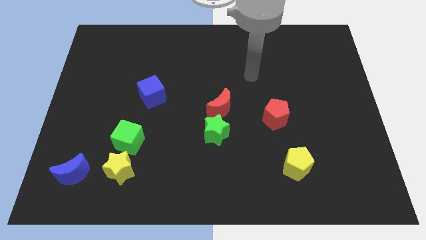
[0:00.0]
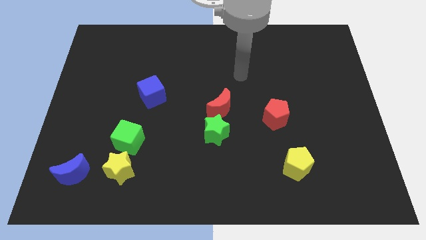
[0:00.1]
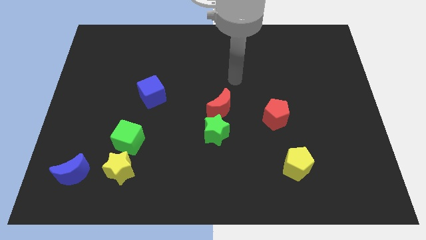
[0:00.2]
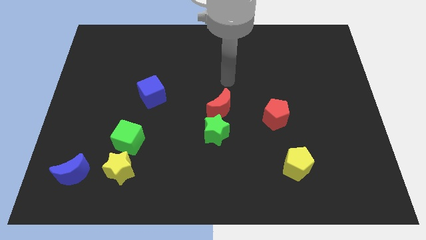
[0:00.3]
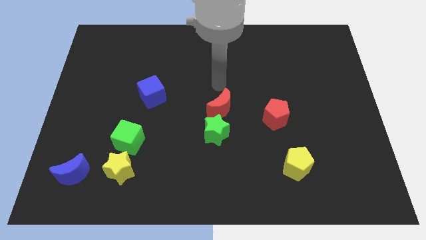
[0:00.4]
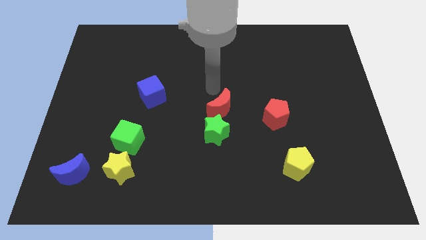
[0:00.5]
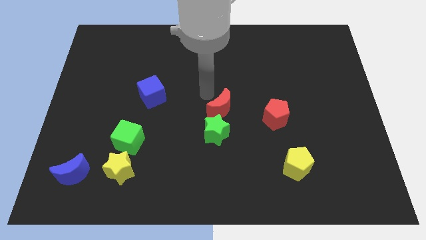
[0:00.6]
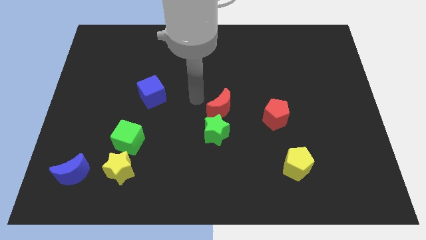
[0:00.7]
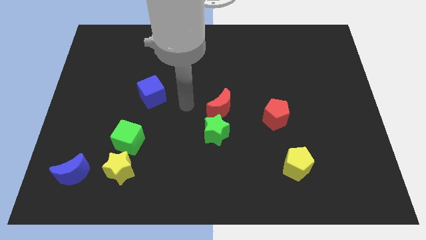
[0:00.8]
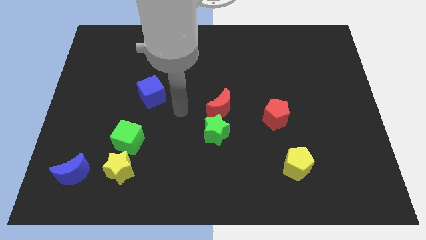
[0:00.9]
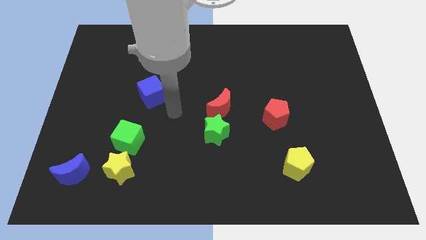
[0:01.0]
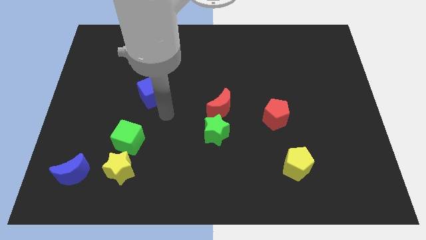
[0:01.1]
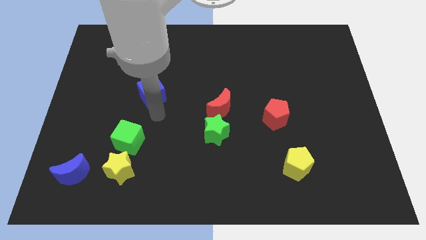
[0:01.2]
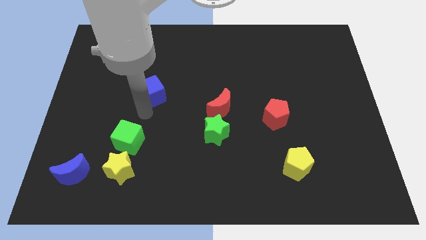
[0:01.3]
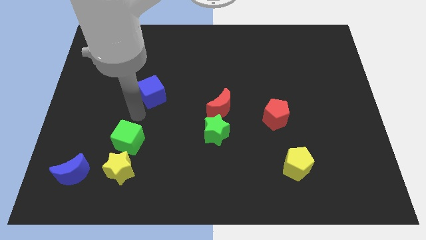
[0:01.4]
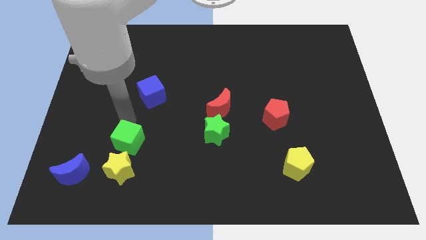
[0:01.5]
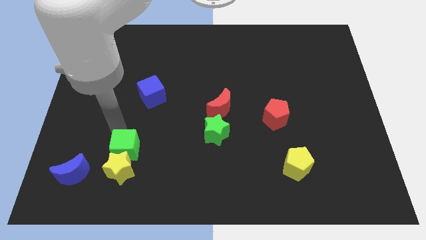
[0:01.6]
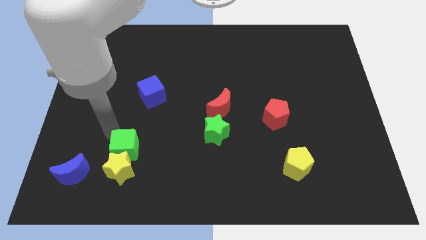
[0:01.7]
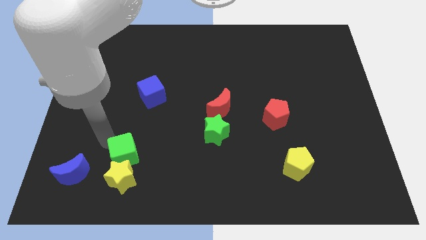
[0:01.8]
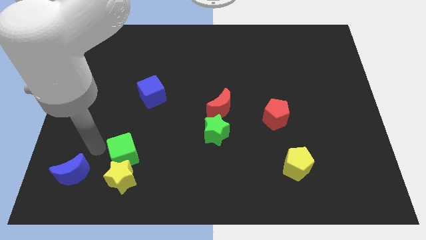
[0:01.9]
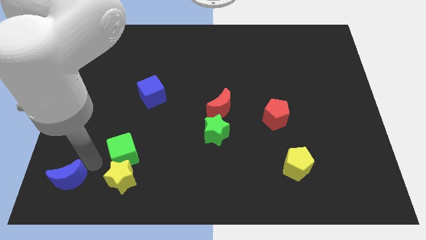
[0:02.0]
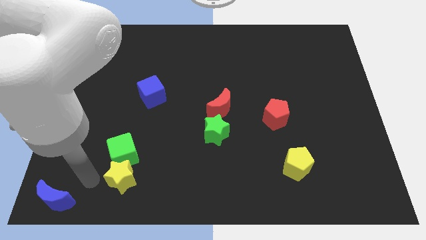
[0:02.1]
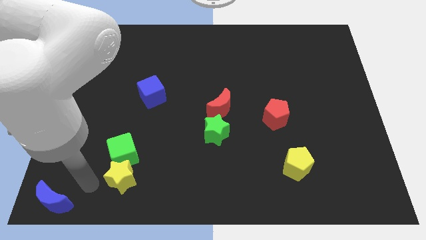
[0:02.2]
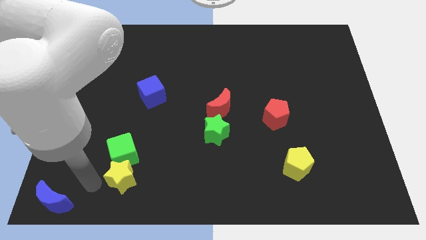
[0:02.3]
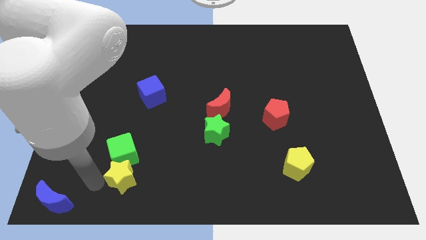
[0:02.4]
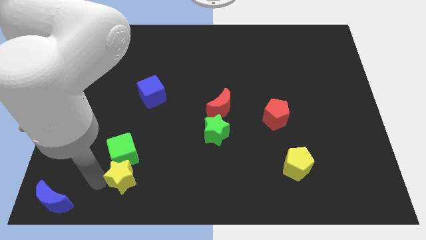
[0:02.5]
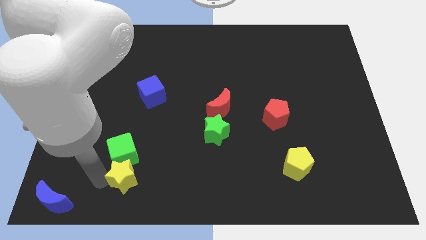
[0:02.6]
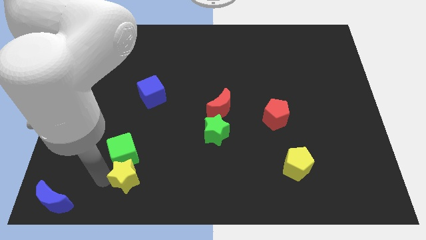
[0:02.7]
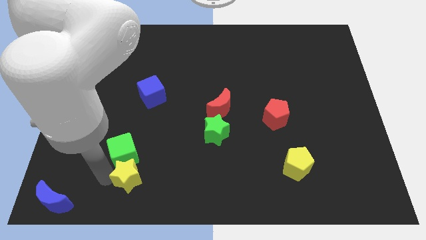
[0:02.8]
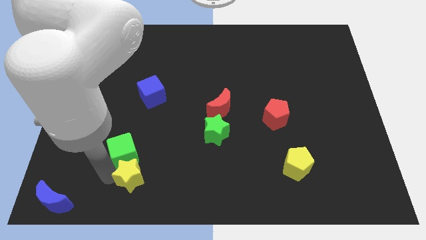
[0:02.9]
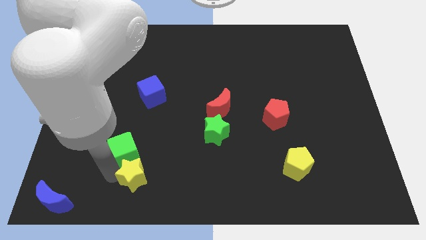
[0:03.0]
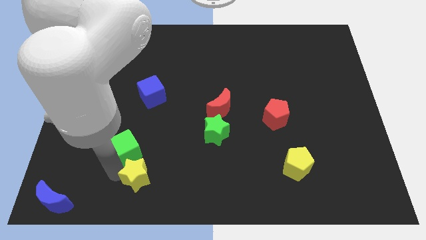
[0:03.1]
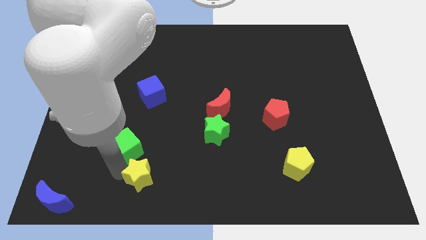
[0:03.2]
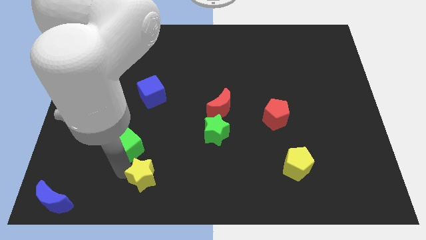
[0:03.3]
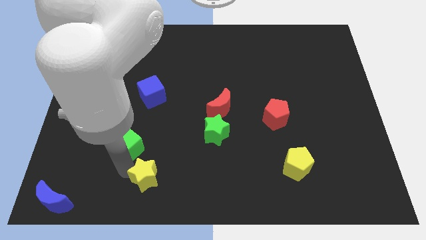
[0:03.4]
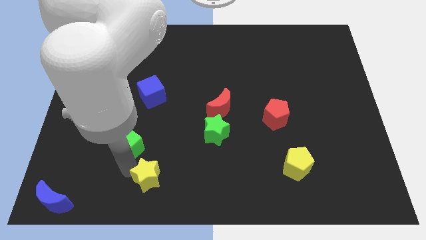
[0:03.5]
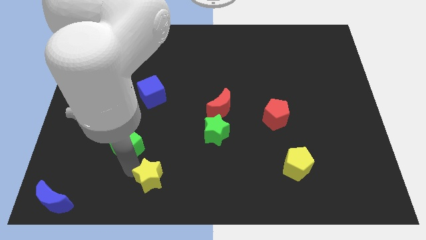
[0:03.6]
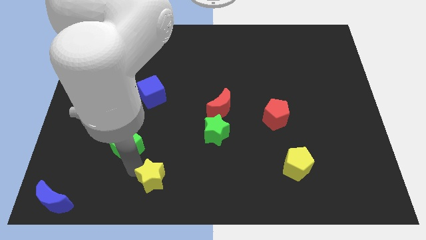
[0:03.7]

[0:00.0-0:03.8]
slightly move the yellow star right

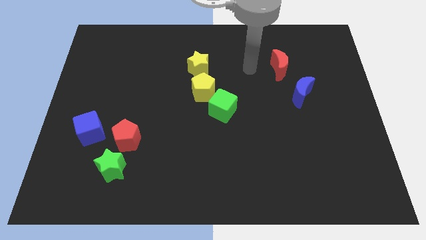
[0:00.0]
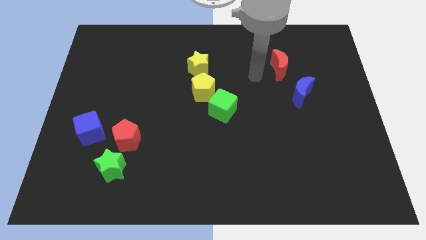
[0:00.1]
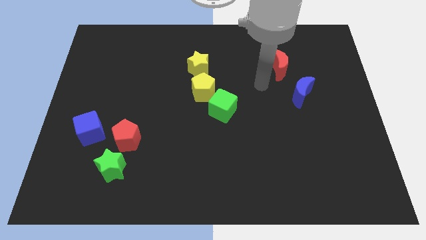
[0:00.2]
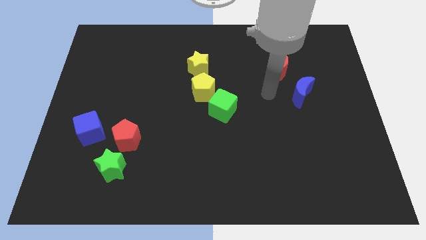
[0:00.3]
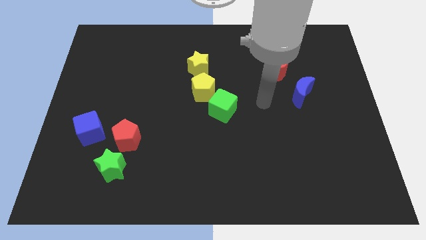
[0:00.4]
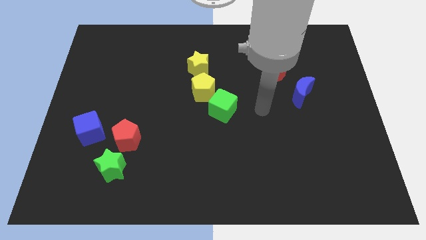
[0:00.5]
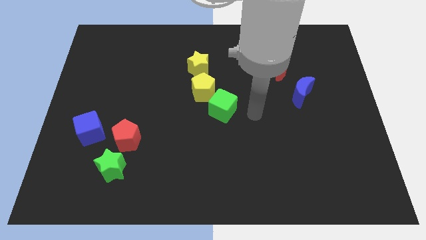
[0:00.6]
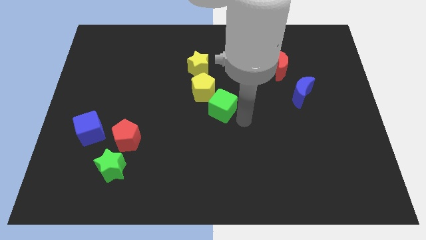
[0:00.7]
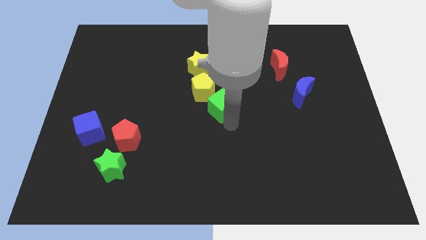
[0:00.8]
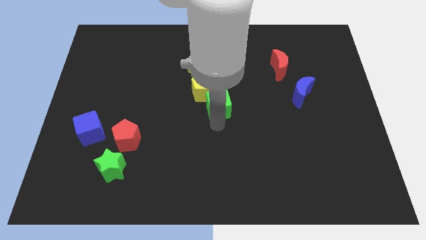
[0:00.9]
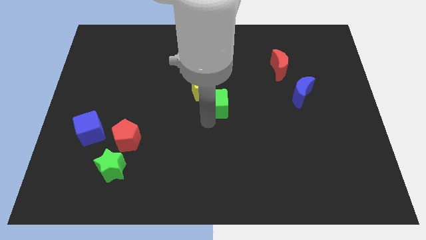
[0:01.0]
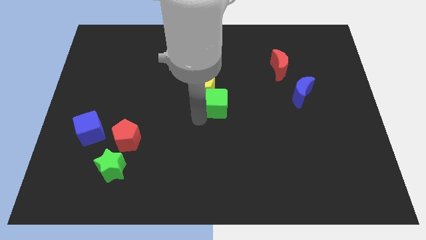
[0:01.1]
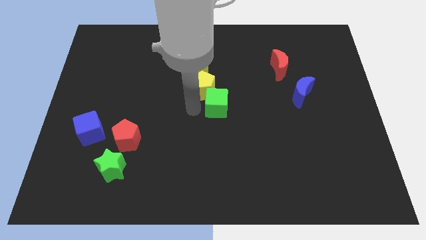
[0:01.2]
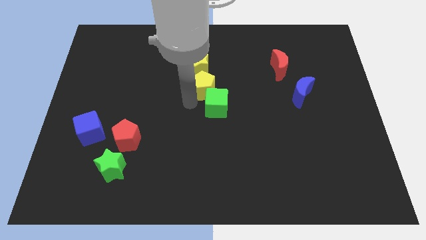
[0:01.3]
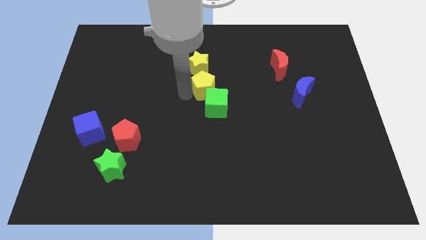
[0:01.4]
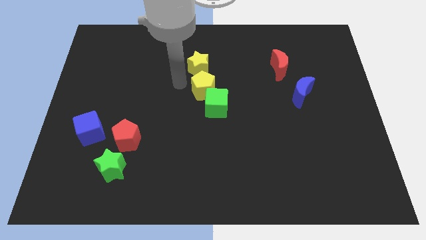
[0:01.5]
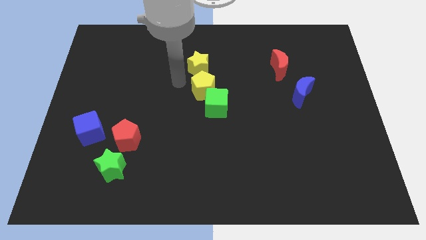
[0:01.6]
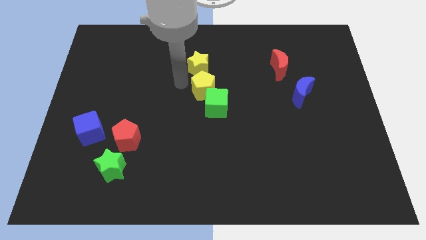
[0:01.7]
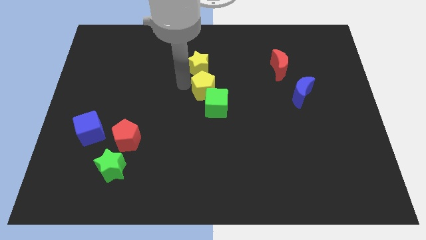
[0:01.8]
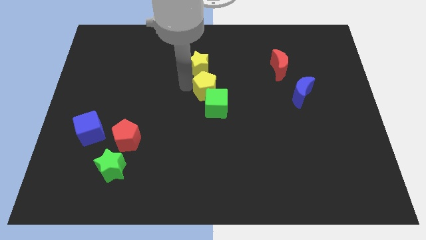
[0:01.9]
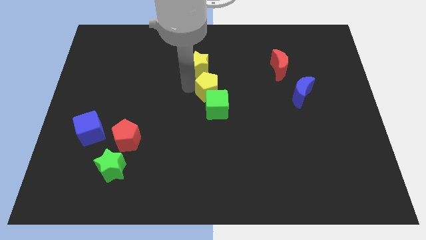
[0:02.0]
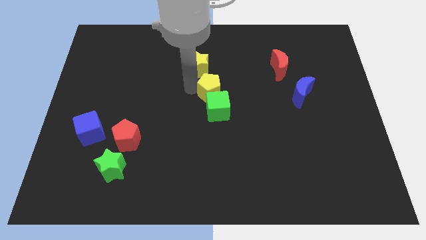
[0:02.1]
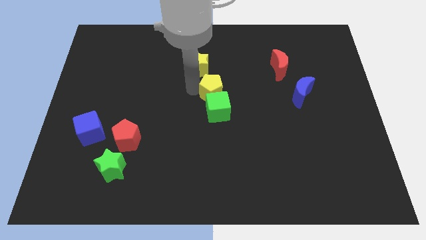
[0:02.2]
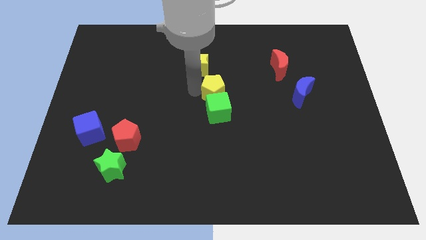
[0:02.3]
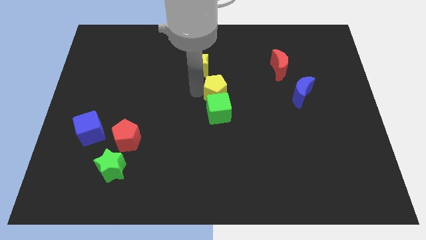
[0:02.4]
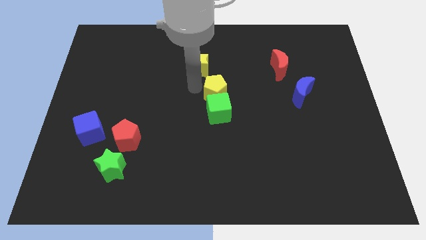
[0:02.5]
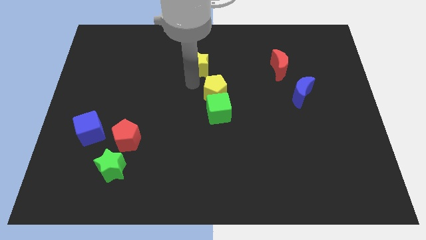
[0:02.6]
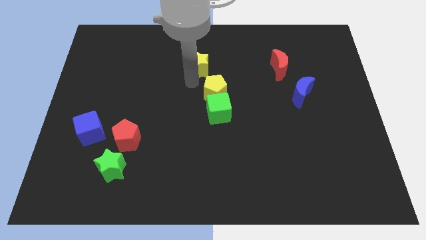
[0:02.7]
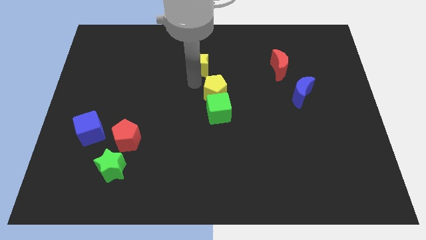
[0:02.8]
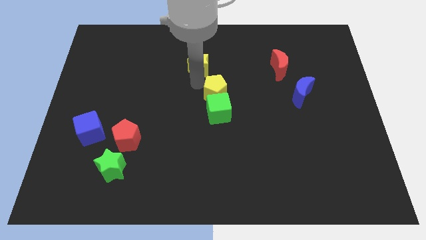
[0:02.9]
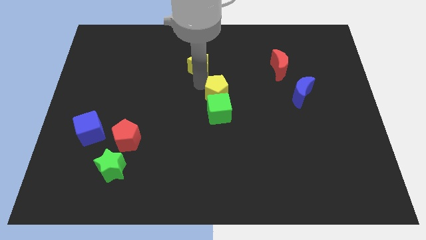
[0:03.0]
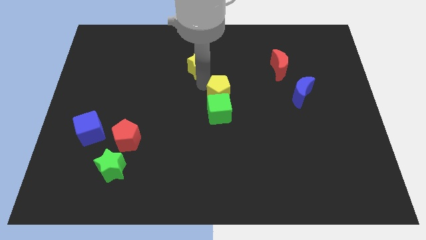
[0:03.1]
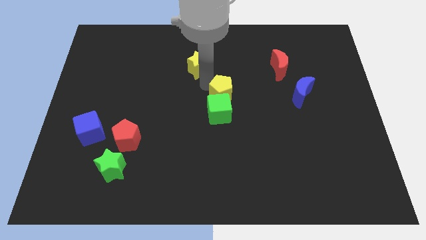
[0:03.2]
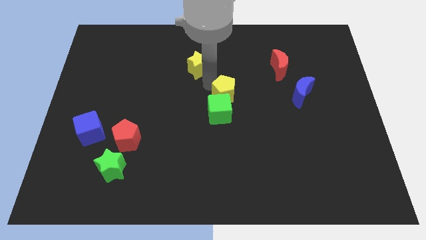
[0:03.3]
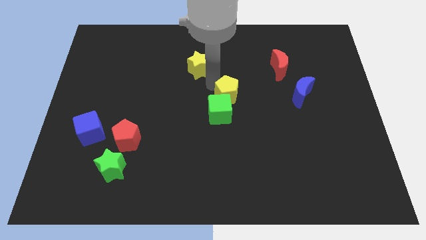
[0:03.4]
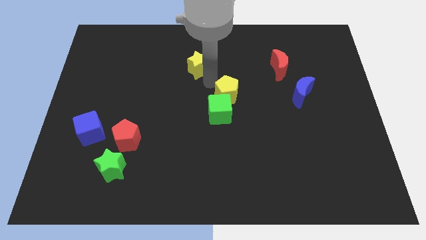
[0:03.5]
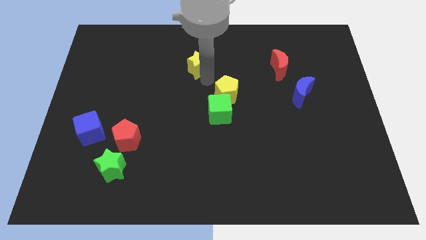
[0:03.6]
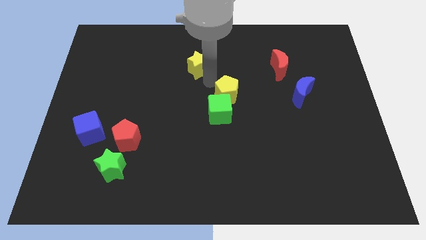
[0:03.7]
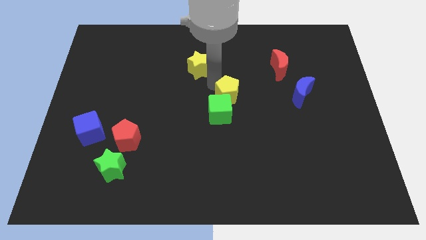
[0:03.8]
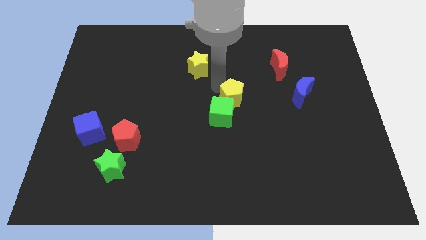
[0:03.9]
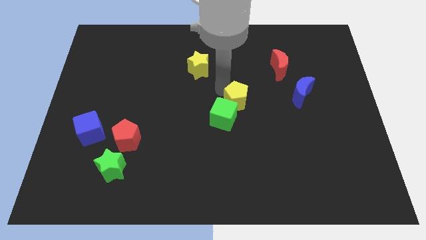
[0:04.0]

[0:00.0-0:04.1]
slightly push the yellow pentagon down and right

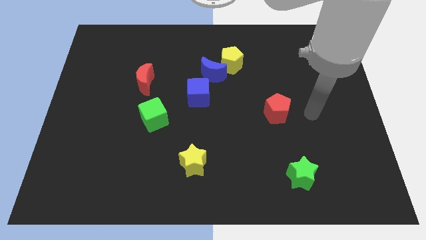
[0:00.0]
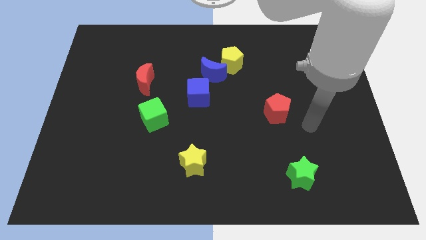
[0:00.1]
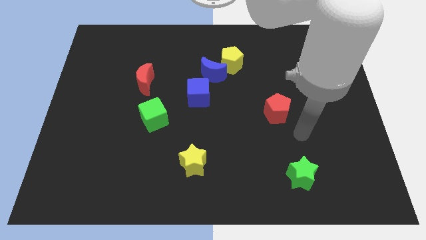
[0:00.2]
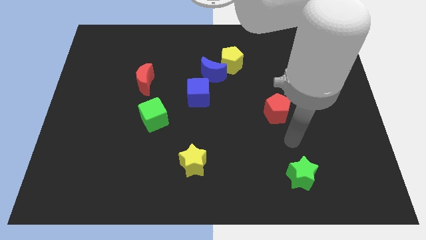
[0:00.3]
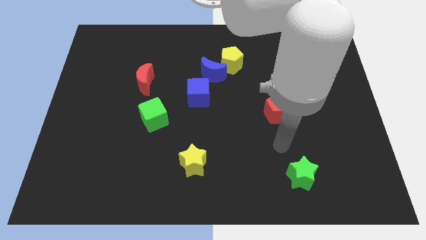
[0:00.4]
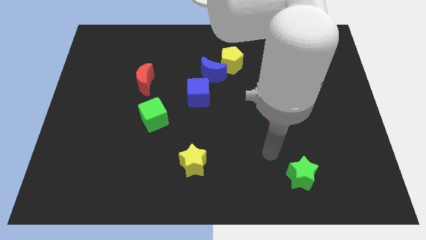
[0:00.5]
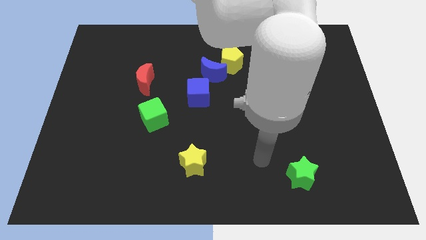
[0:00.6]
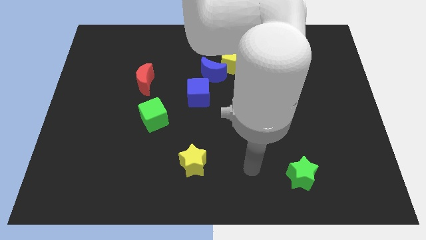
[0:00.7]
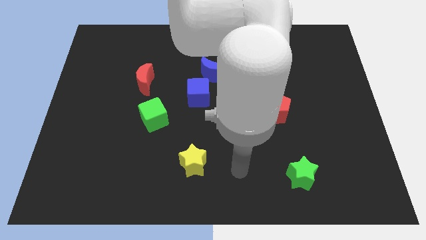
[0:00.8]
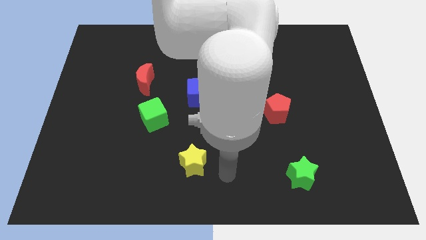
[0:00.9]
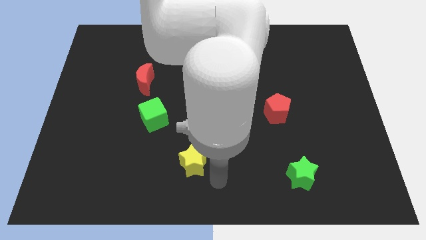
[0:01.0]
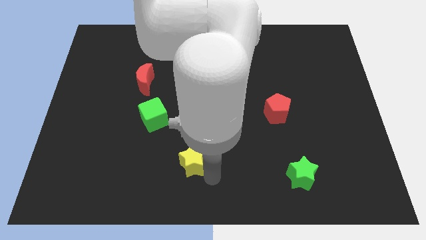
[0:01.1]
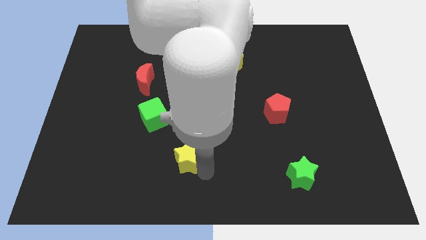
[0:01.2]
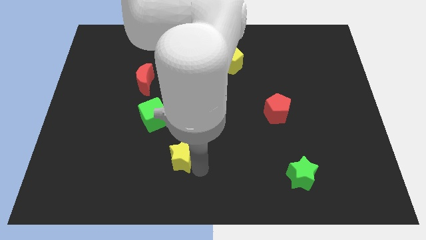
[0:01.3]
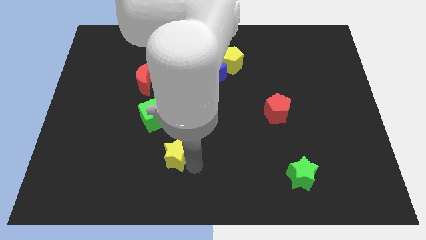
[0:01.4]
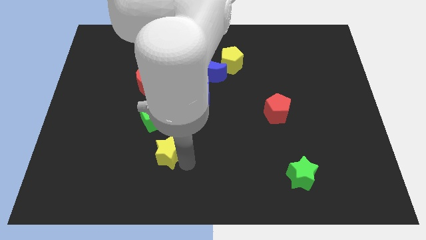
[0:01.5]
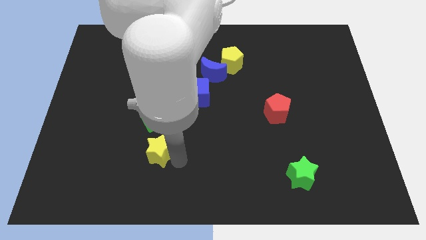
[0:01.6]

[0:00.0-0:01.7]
slightly push the yellow star diagonally upwards and left
